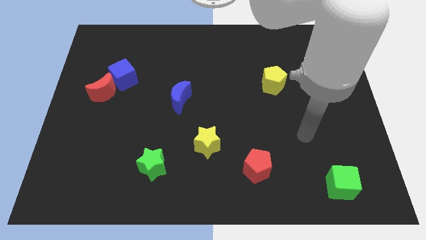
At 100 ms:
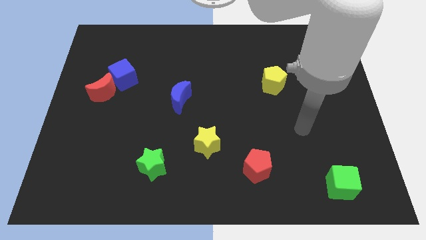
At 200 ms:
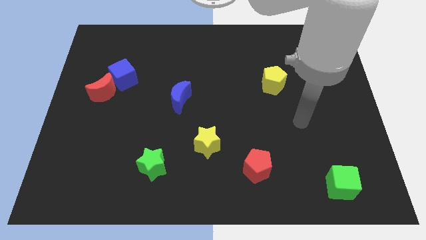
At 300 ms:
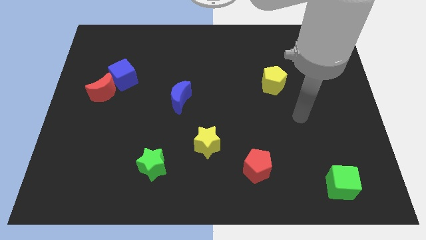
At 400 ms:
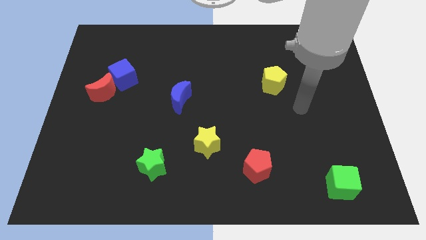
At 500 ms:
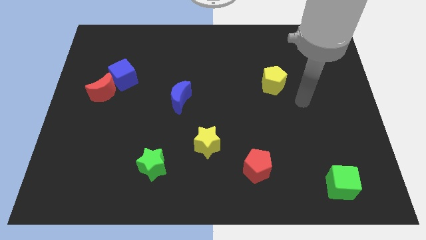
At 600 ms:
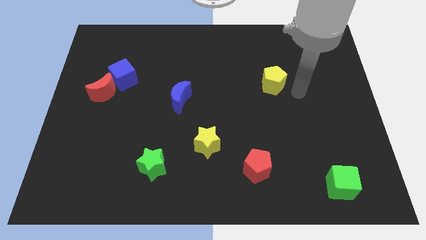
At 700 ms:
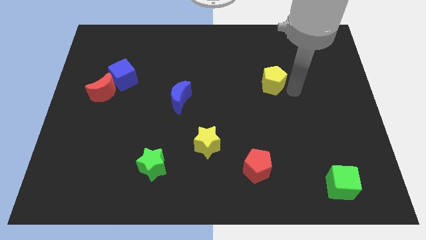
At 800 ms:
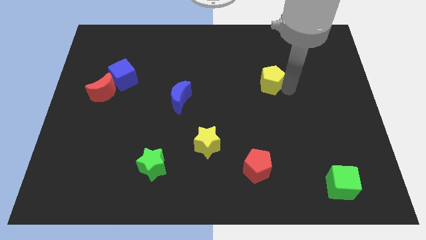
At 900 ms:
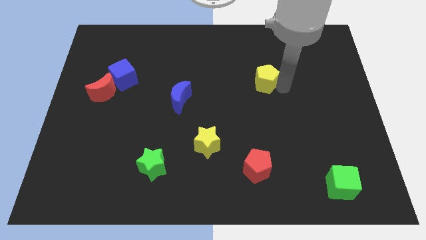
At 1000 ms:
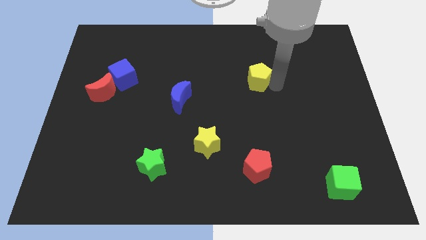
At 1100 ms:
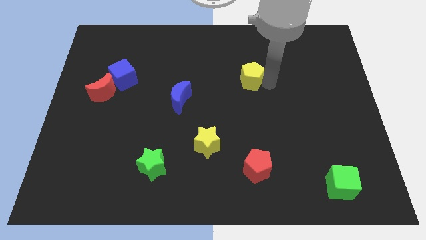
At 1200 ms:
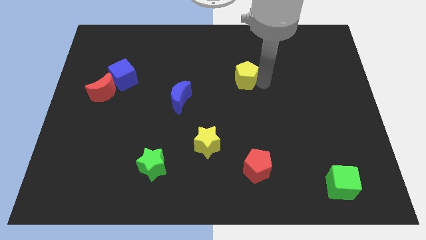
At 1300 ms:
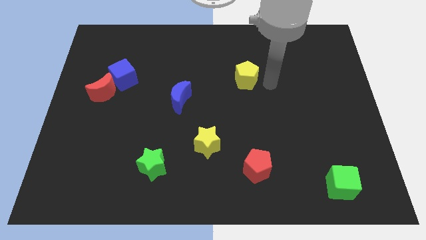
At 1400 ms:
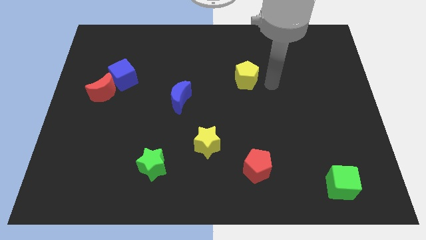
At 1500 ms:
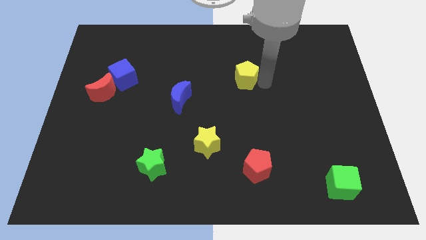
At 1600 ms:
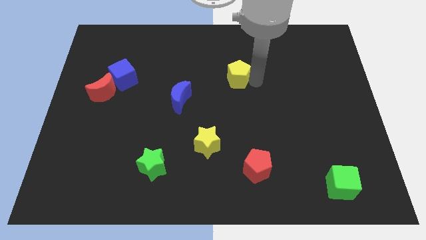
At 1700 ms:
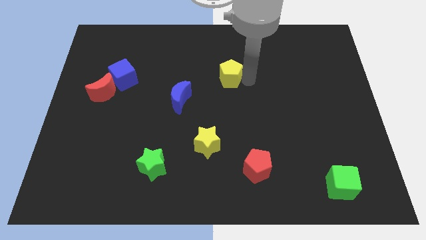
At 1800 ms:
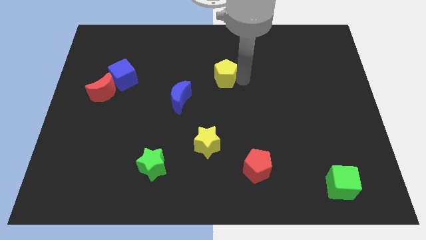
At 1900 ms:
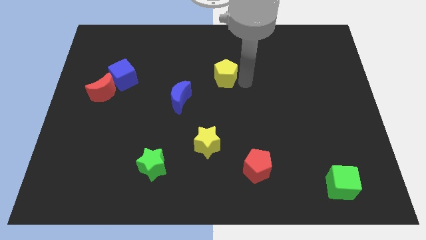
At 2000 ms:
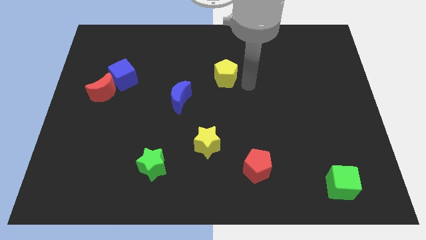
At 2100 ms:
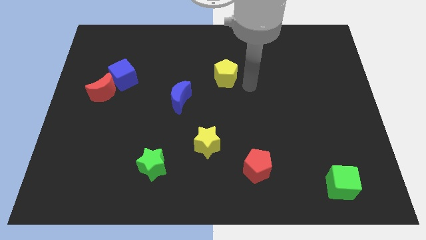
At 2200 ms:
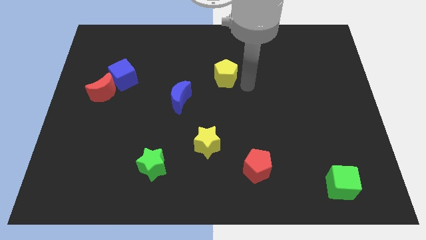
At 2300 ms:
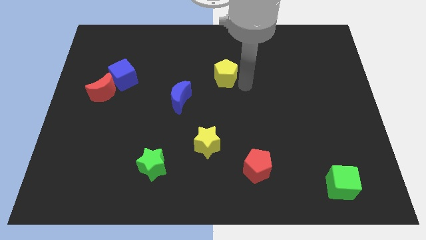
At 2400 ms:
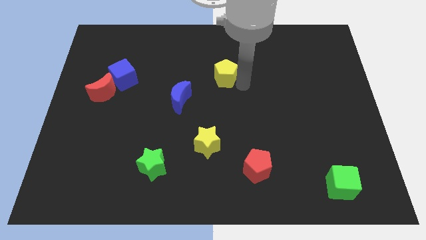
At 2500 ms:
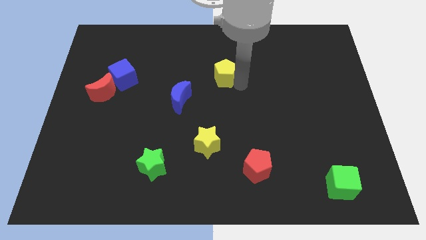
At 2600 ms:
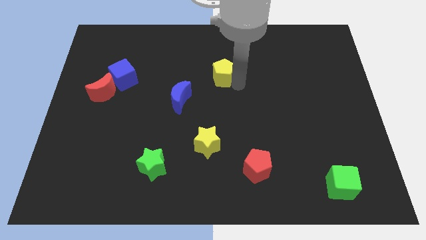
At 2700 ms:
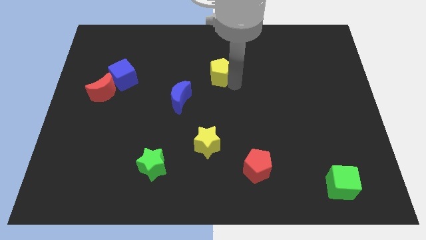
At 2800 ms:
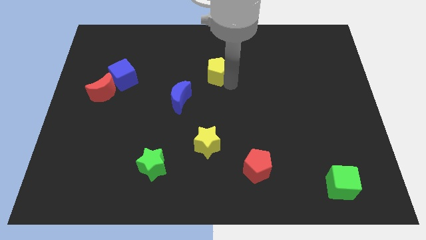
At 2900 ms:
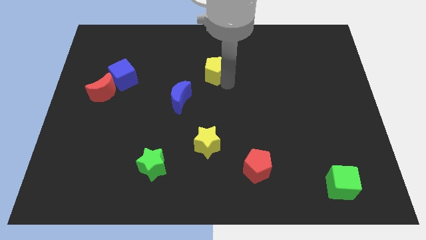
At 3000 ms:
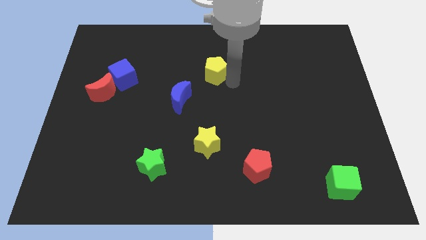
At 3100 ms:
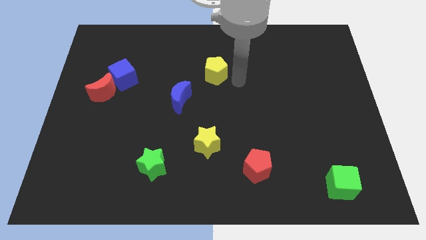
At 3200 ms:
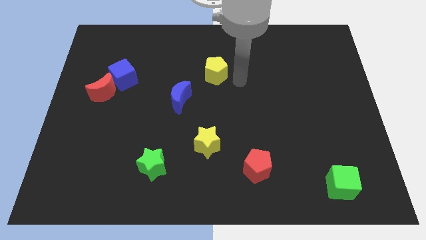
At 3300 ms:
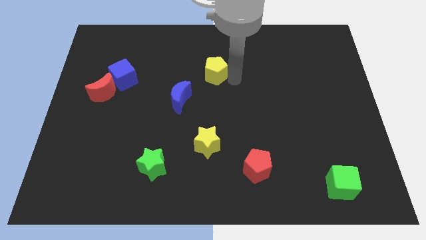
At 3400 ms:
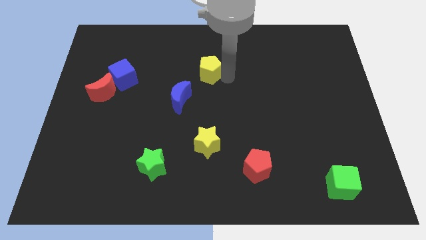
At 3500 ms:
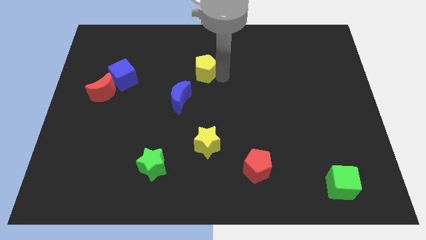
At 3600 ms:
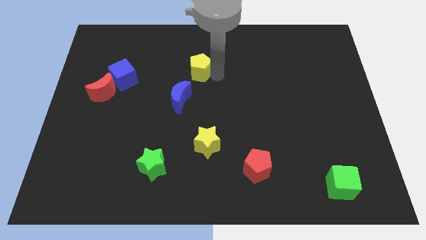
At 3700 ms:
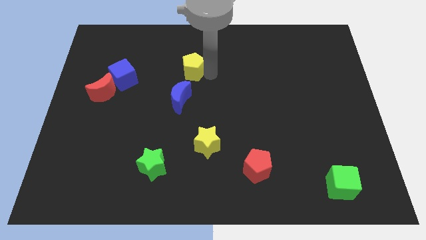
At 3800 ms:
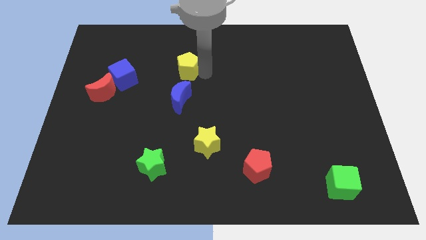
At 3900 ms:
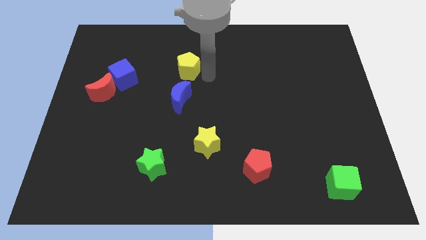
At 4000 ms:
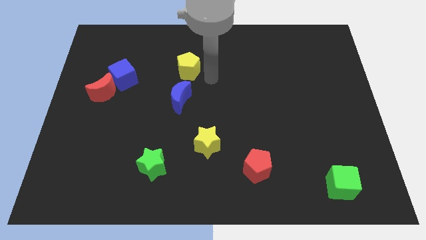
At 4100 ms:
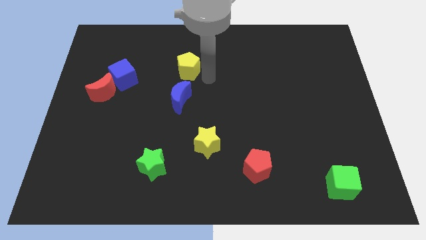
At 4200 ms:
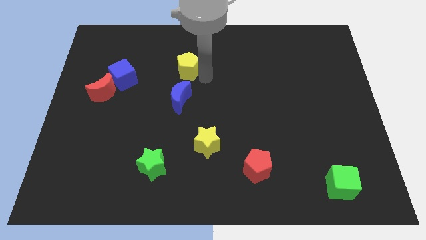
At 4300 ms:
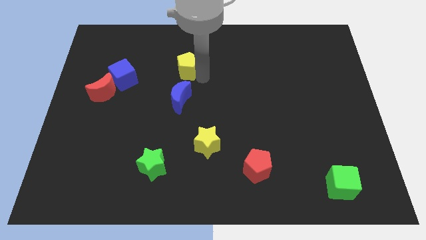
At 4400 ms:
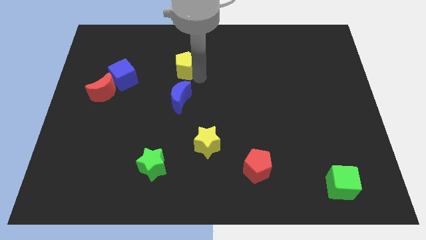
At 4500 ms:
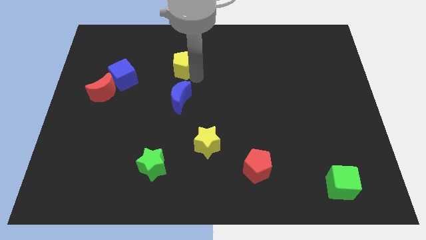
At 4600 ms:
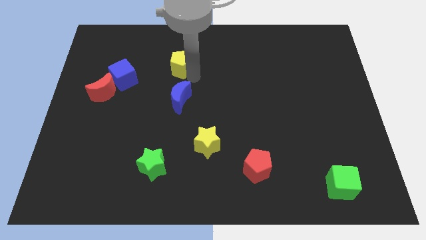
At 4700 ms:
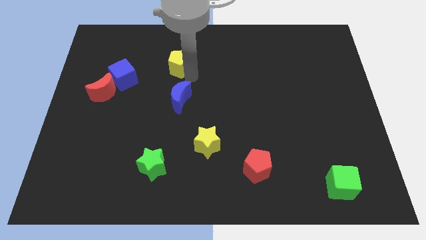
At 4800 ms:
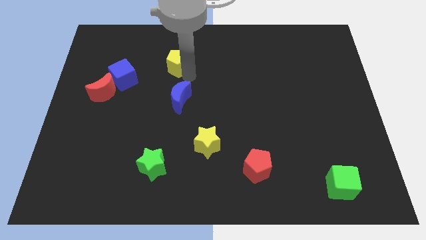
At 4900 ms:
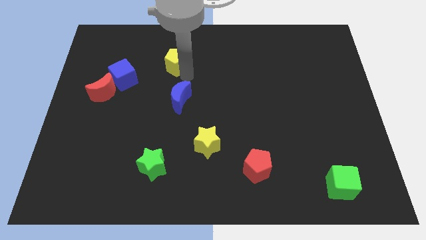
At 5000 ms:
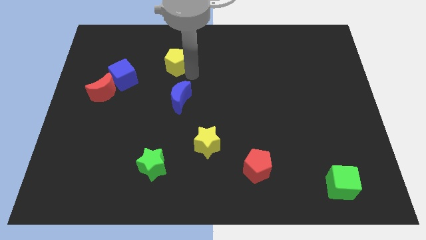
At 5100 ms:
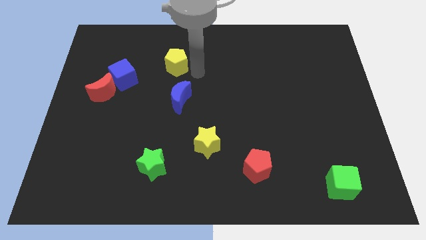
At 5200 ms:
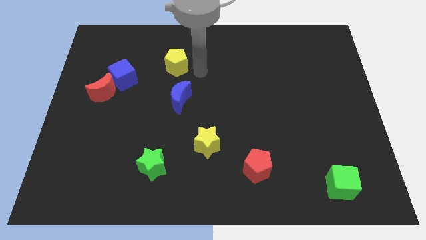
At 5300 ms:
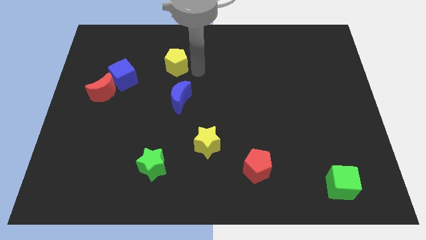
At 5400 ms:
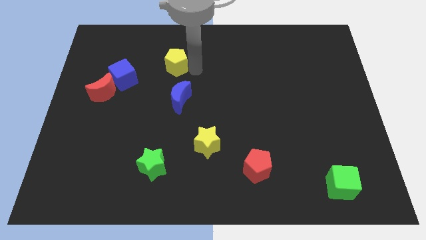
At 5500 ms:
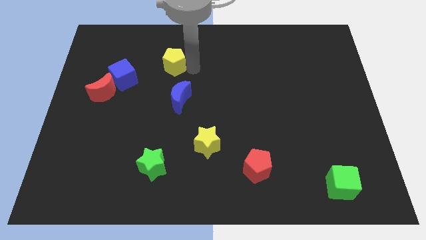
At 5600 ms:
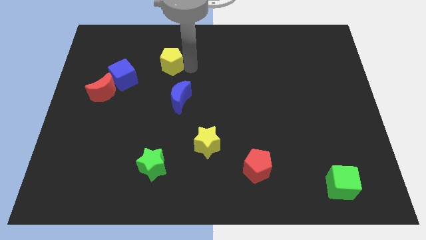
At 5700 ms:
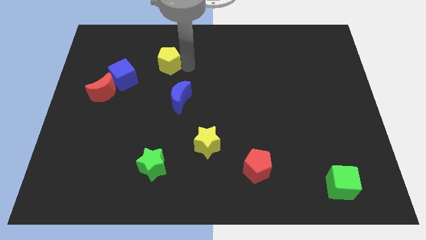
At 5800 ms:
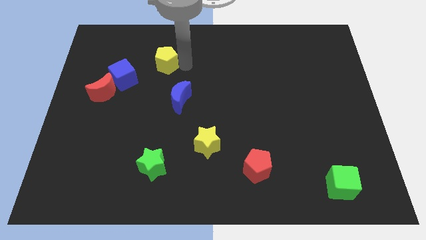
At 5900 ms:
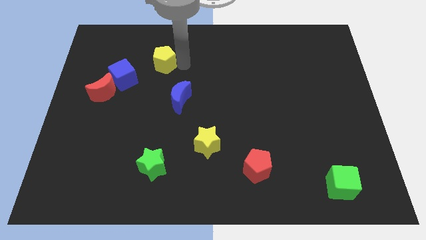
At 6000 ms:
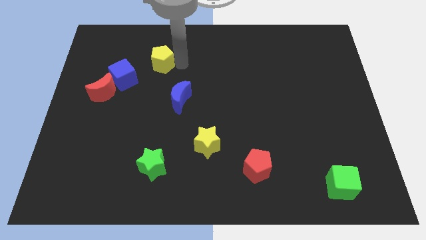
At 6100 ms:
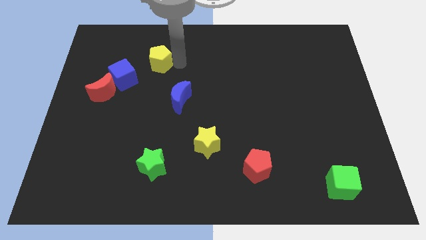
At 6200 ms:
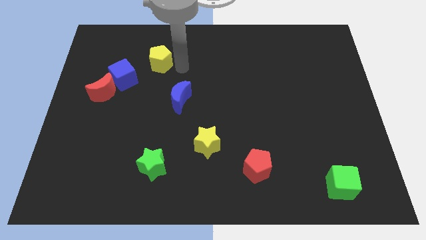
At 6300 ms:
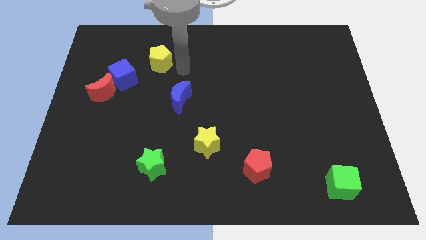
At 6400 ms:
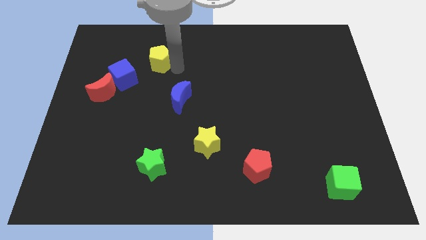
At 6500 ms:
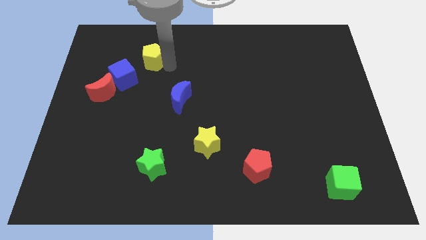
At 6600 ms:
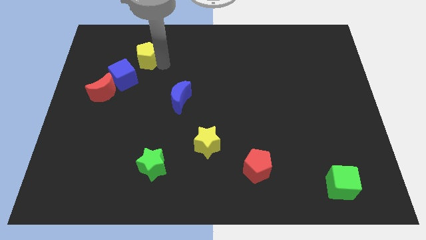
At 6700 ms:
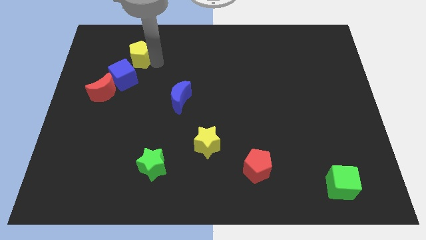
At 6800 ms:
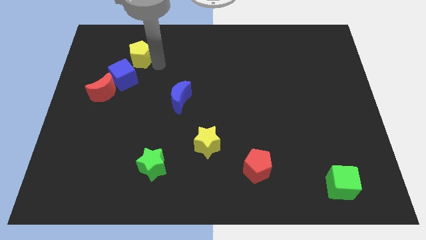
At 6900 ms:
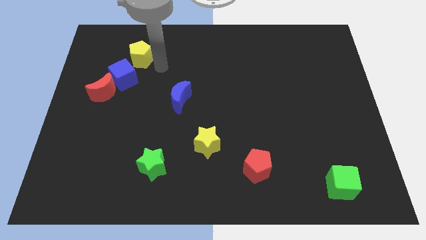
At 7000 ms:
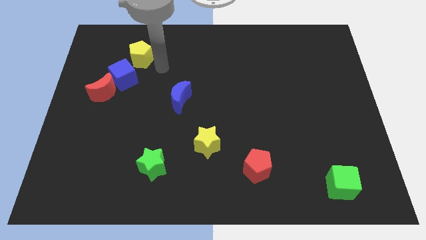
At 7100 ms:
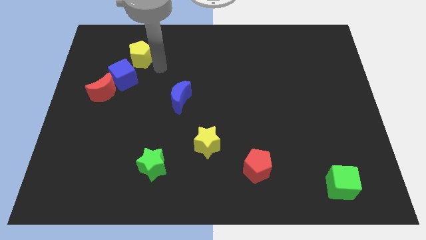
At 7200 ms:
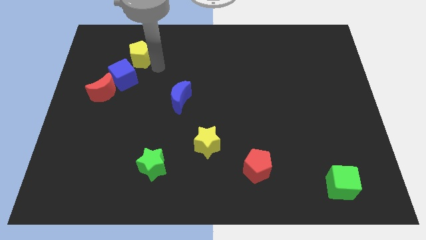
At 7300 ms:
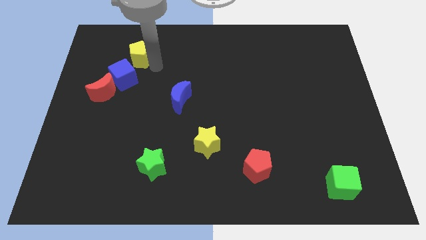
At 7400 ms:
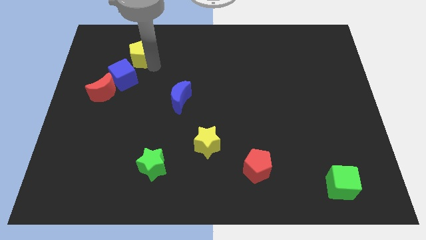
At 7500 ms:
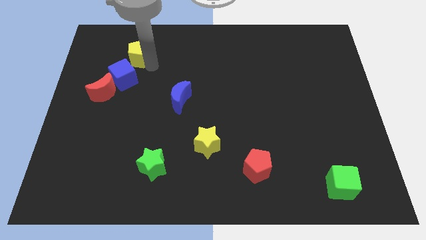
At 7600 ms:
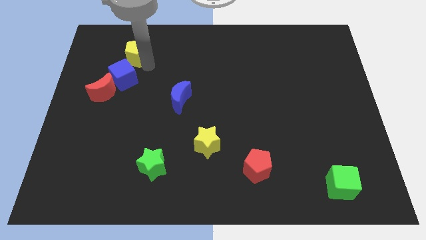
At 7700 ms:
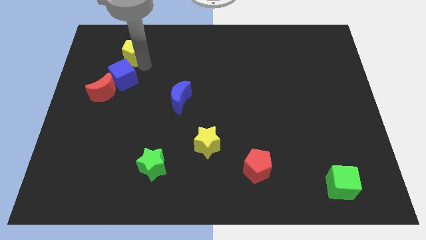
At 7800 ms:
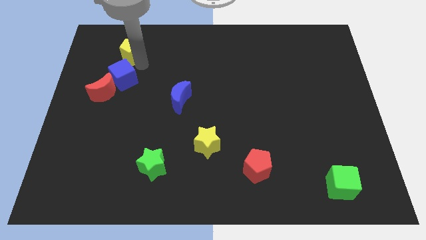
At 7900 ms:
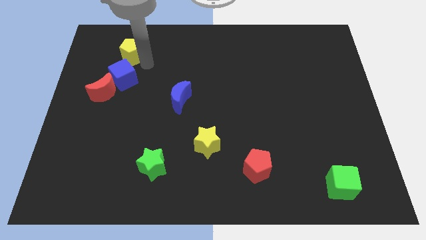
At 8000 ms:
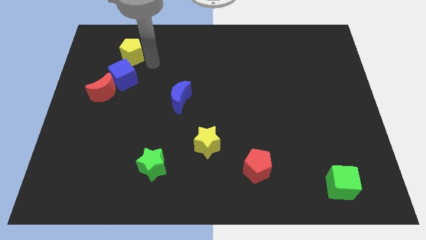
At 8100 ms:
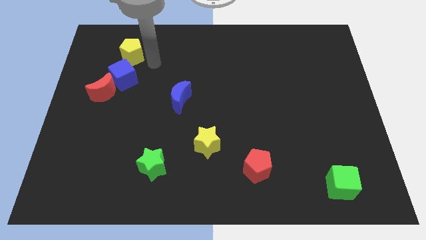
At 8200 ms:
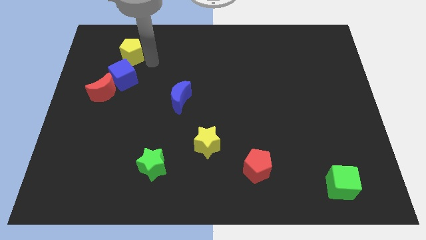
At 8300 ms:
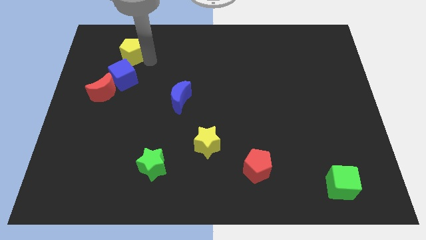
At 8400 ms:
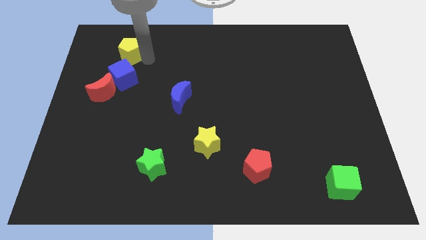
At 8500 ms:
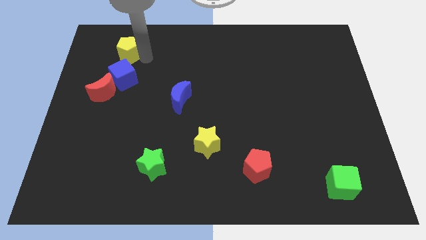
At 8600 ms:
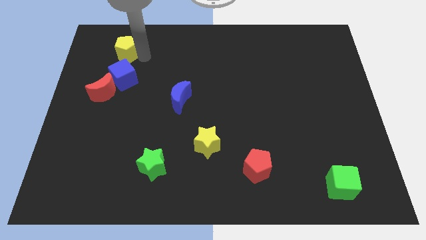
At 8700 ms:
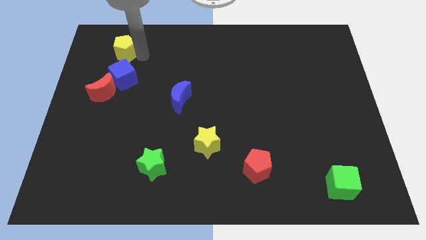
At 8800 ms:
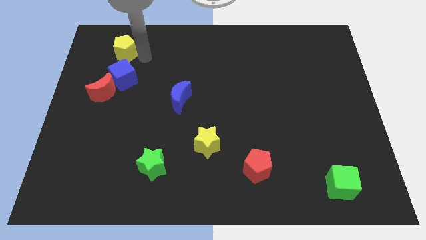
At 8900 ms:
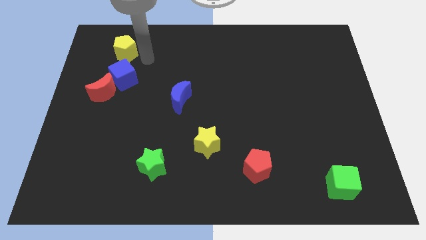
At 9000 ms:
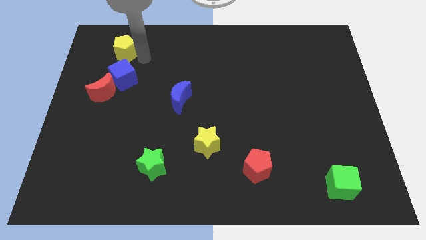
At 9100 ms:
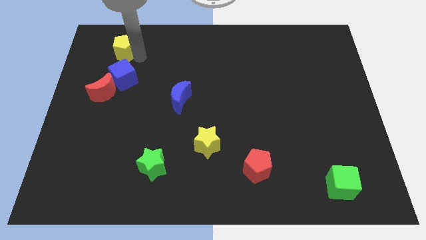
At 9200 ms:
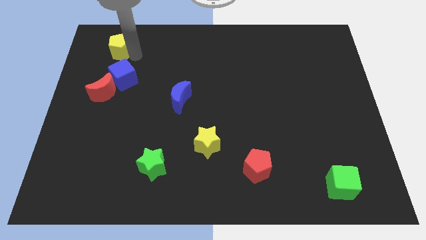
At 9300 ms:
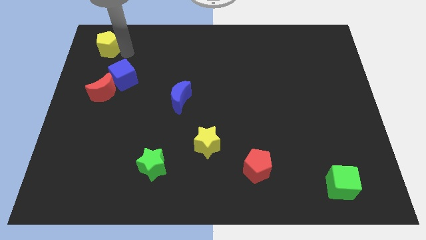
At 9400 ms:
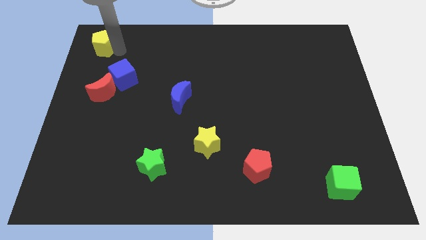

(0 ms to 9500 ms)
slide the yellow pentagon to the upper left corner
